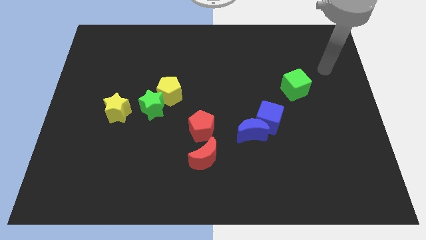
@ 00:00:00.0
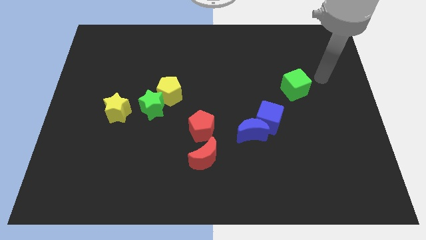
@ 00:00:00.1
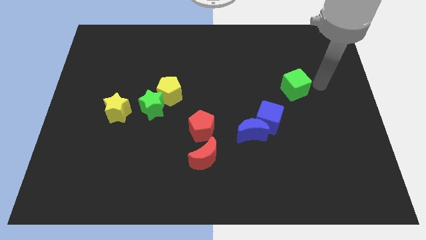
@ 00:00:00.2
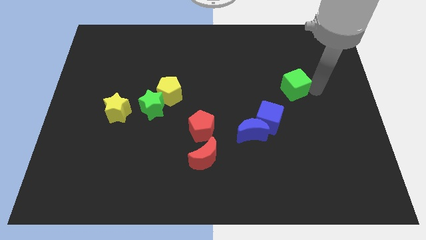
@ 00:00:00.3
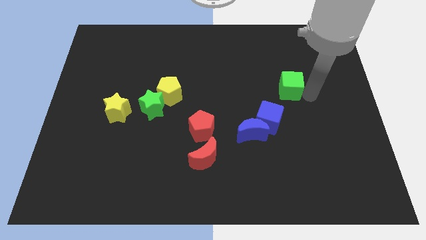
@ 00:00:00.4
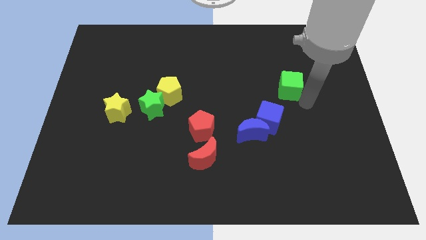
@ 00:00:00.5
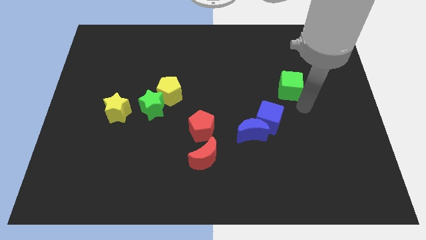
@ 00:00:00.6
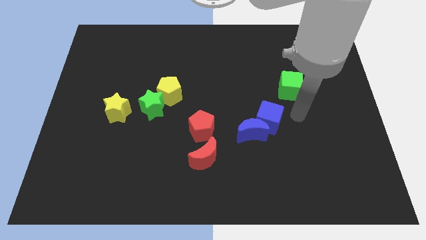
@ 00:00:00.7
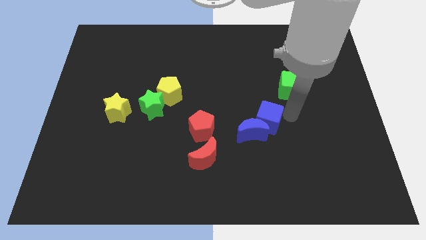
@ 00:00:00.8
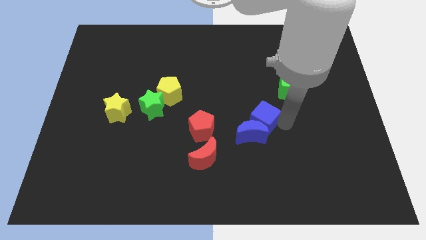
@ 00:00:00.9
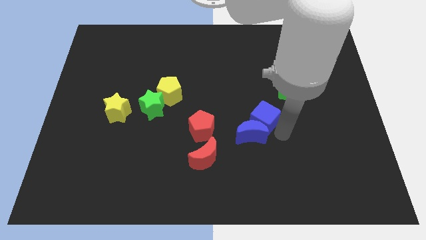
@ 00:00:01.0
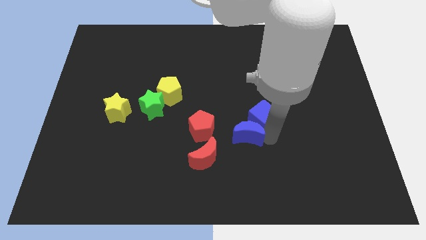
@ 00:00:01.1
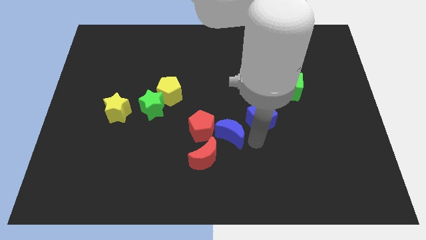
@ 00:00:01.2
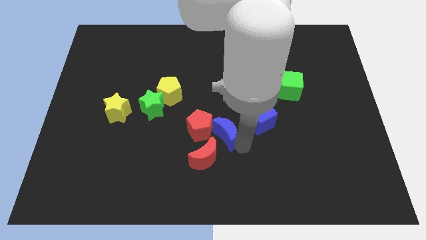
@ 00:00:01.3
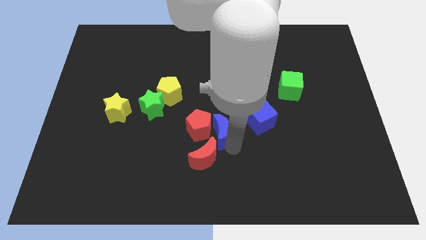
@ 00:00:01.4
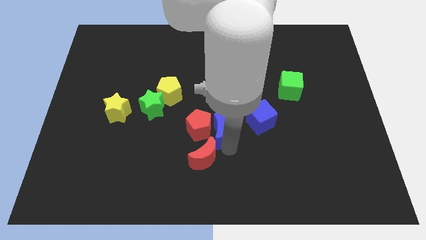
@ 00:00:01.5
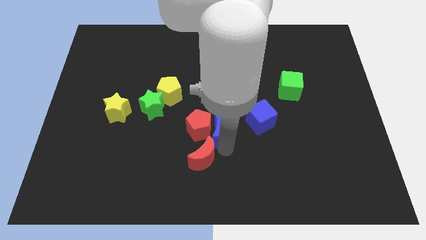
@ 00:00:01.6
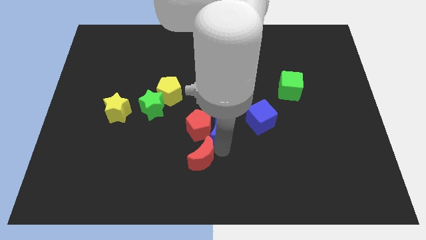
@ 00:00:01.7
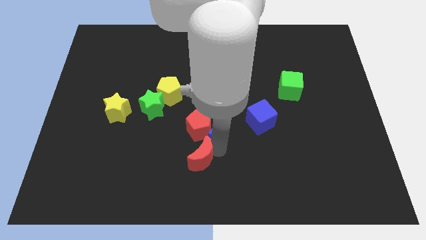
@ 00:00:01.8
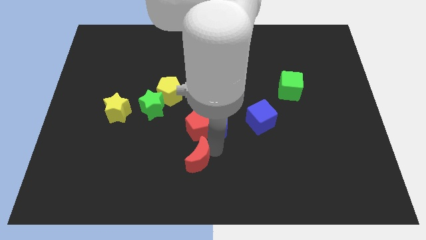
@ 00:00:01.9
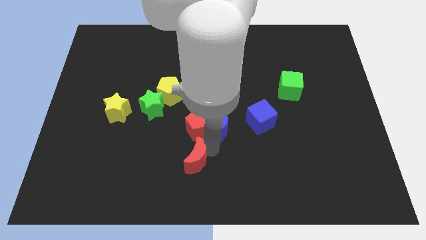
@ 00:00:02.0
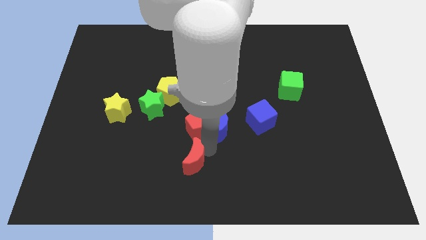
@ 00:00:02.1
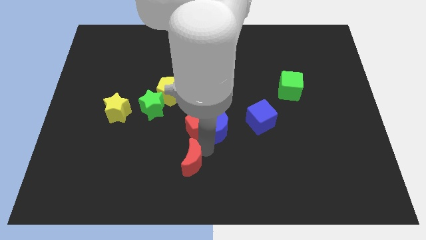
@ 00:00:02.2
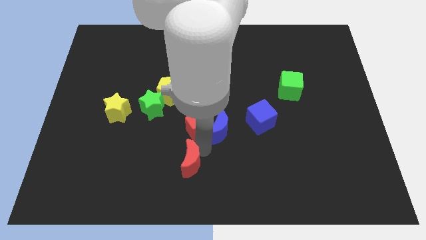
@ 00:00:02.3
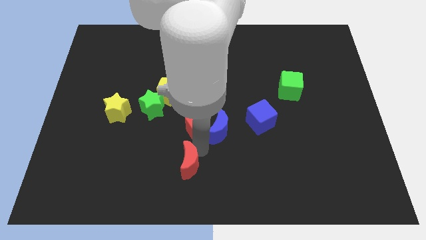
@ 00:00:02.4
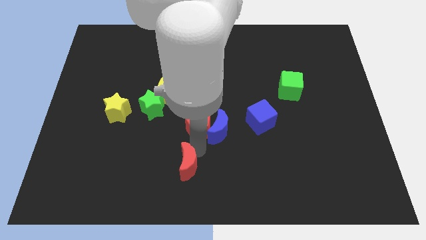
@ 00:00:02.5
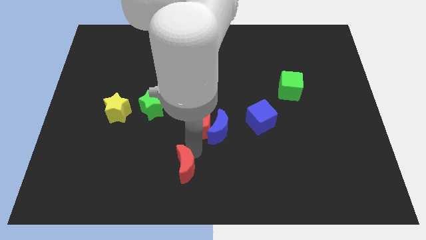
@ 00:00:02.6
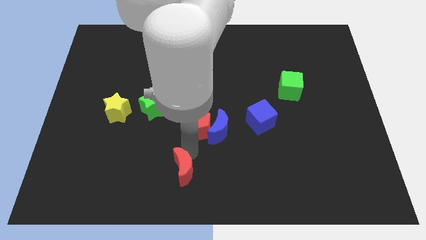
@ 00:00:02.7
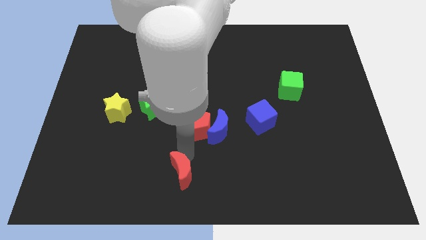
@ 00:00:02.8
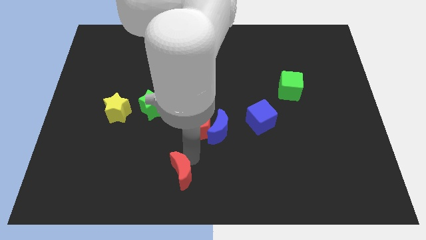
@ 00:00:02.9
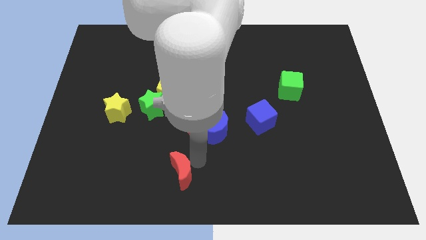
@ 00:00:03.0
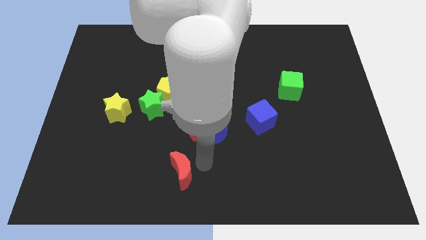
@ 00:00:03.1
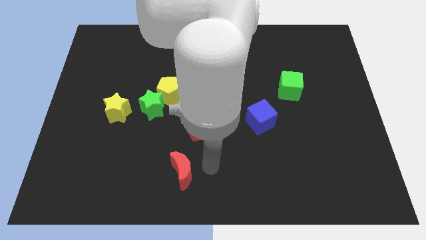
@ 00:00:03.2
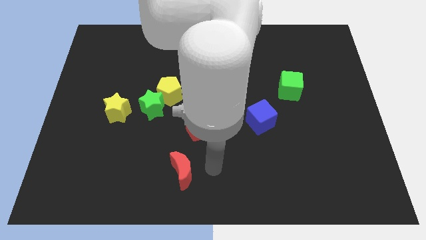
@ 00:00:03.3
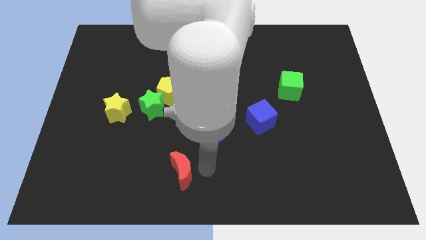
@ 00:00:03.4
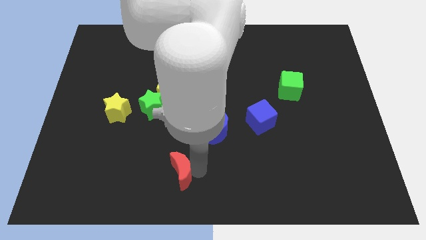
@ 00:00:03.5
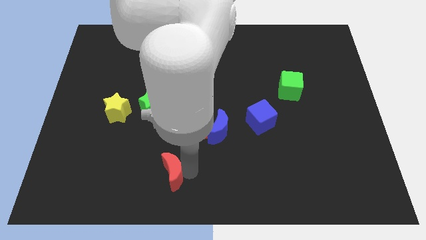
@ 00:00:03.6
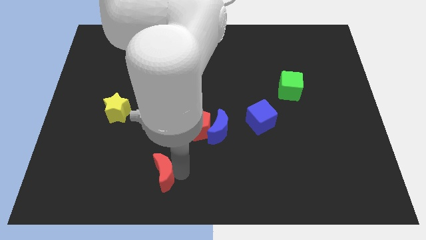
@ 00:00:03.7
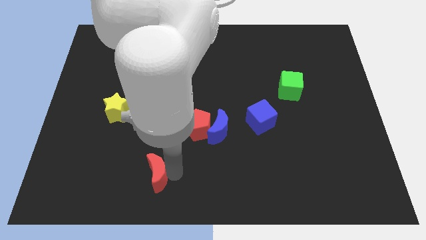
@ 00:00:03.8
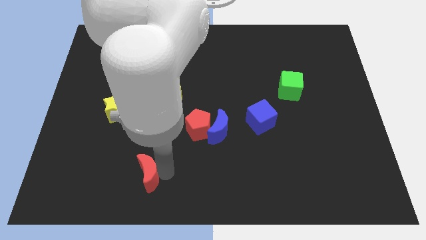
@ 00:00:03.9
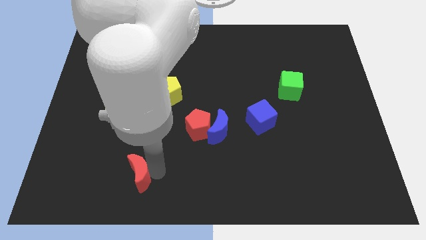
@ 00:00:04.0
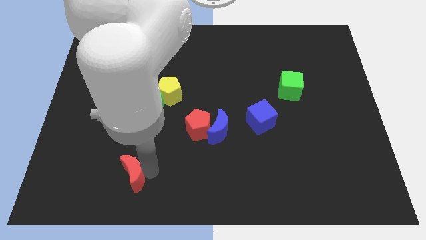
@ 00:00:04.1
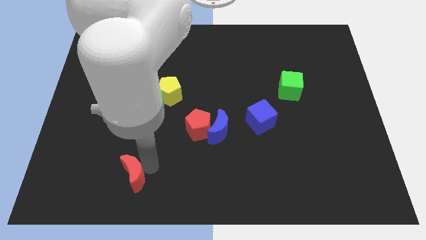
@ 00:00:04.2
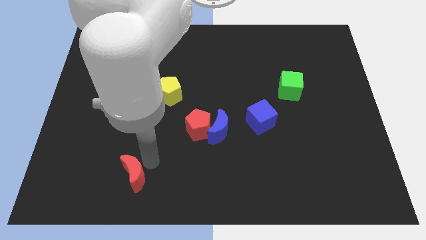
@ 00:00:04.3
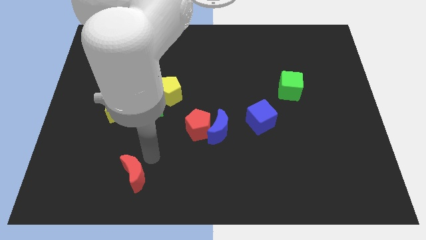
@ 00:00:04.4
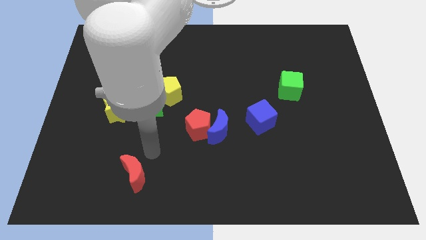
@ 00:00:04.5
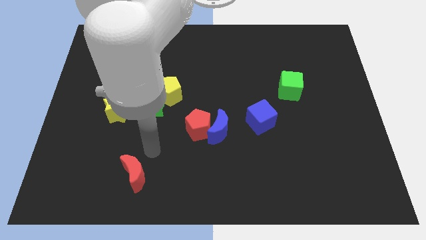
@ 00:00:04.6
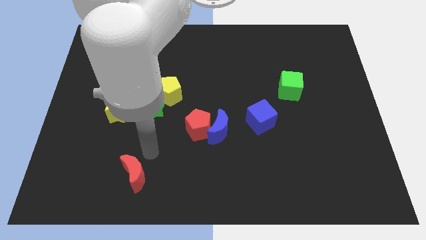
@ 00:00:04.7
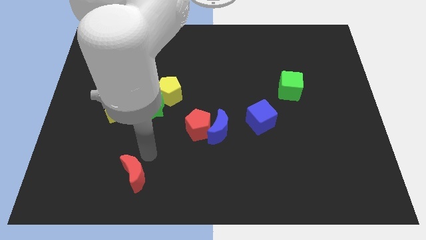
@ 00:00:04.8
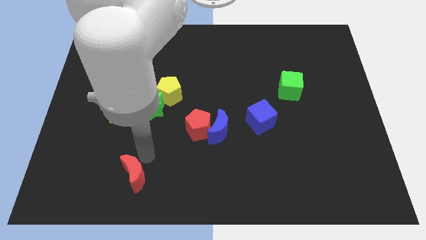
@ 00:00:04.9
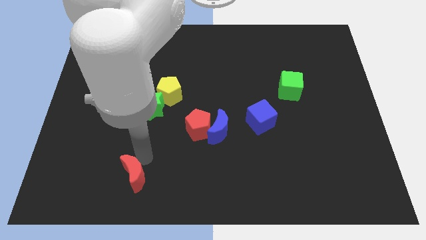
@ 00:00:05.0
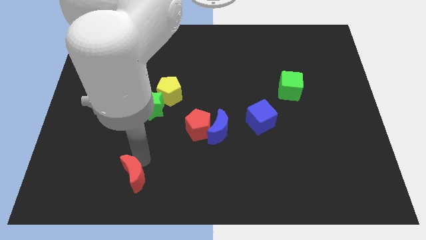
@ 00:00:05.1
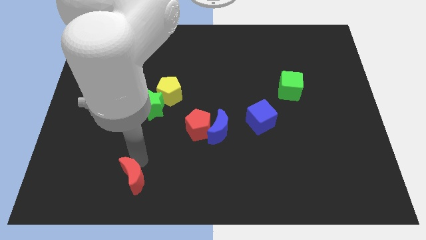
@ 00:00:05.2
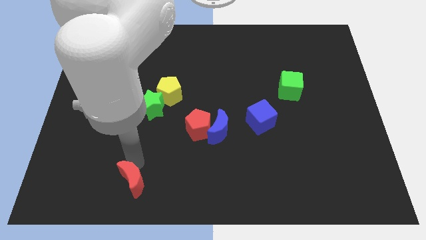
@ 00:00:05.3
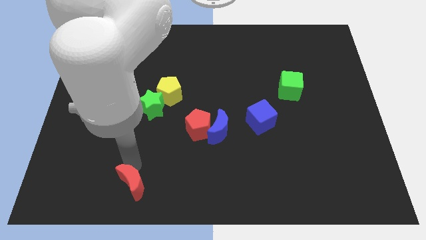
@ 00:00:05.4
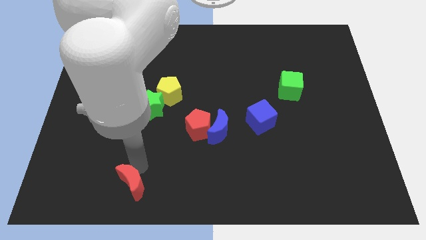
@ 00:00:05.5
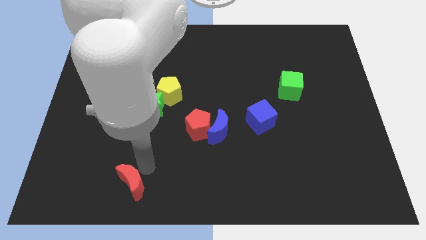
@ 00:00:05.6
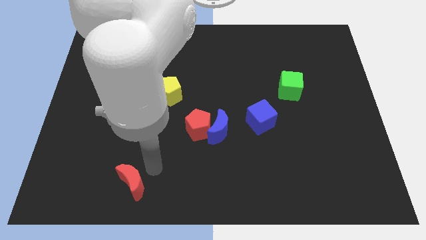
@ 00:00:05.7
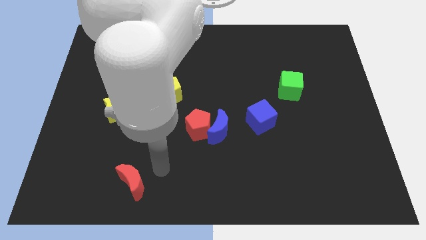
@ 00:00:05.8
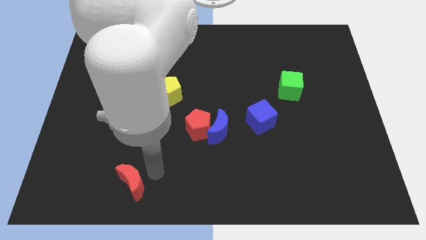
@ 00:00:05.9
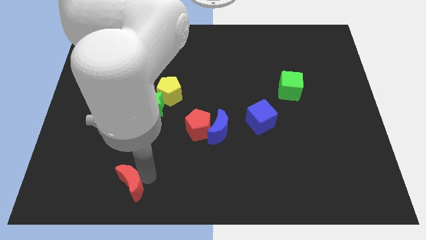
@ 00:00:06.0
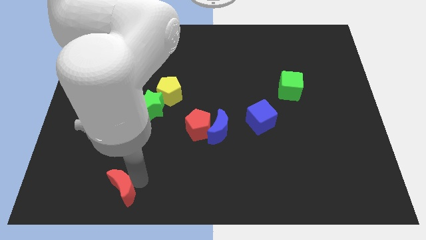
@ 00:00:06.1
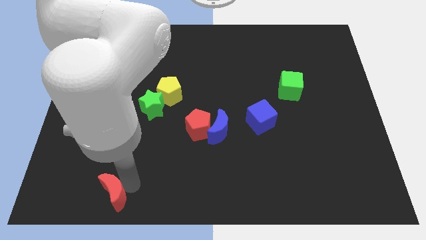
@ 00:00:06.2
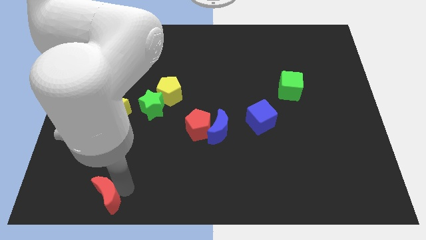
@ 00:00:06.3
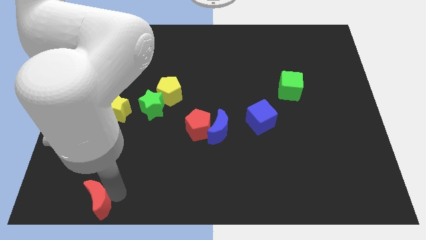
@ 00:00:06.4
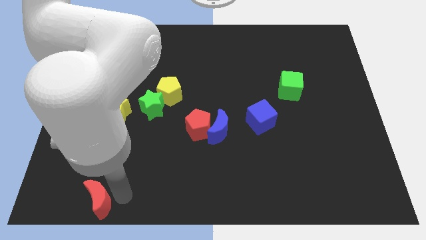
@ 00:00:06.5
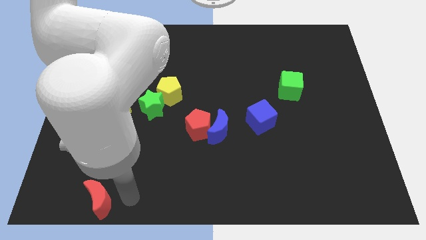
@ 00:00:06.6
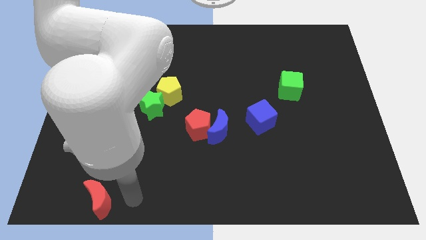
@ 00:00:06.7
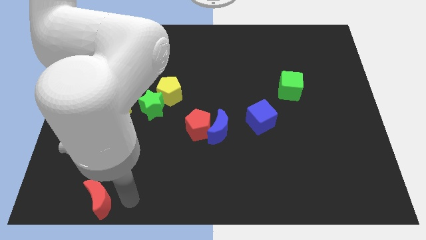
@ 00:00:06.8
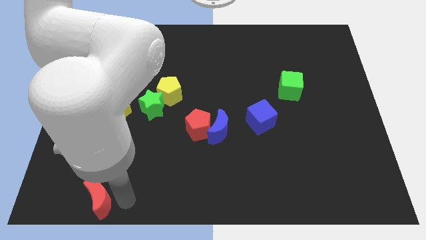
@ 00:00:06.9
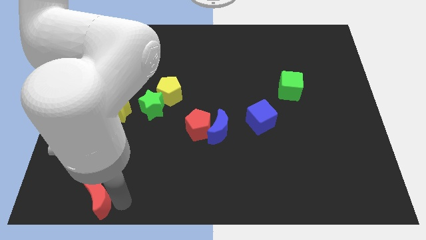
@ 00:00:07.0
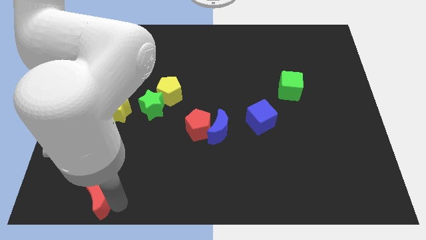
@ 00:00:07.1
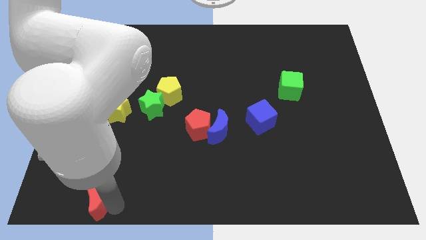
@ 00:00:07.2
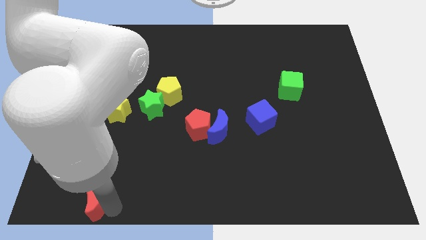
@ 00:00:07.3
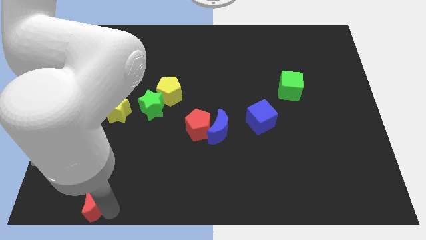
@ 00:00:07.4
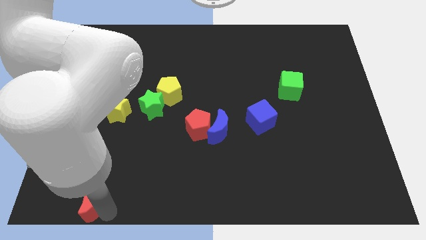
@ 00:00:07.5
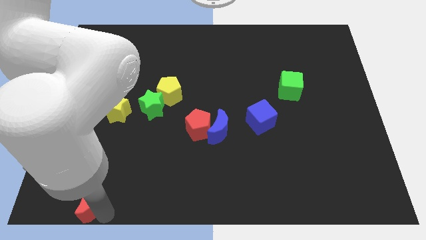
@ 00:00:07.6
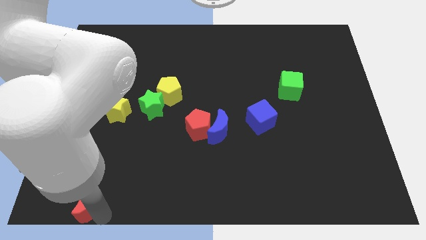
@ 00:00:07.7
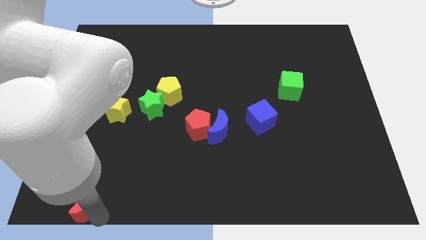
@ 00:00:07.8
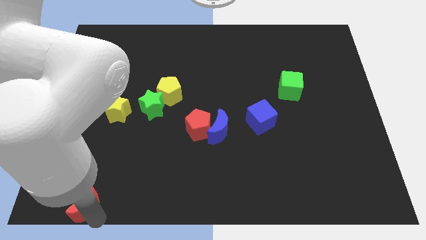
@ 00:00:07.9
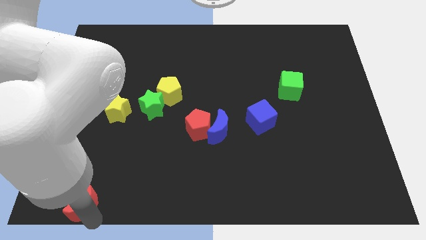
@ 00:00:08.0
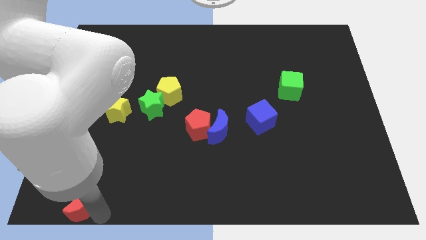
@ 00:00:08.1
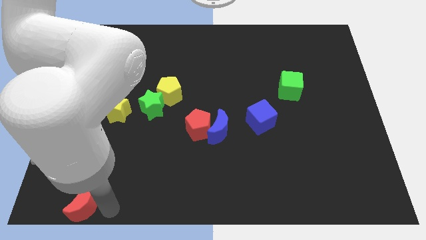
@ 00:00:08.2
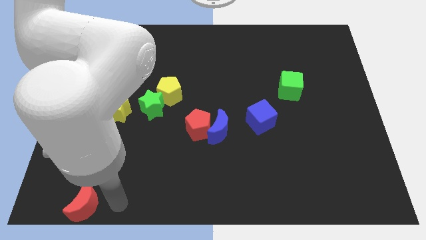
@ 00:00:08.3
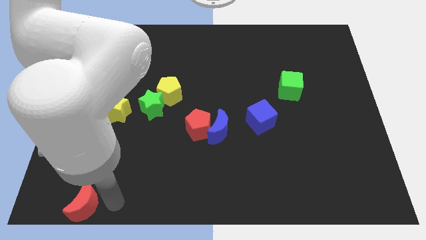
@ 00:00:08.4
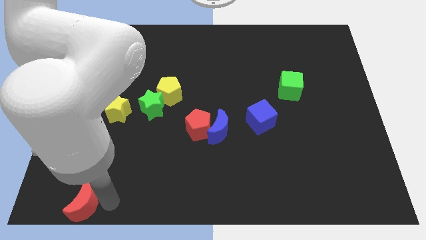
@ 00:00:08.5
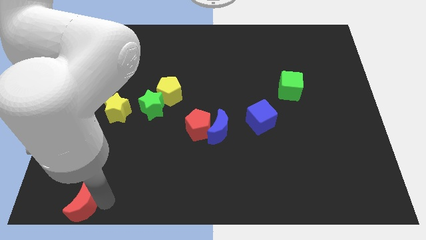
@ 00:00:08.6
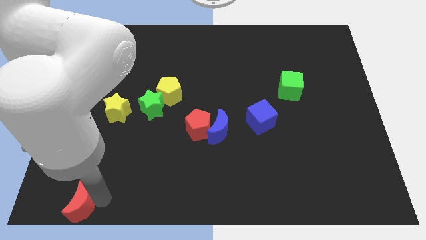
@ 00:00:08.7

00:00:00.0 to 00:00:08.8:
push the red moon to the bottom left
